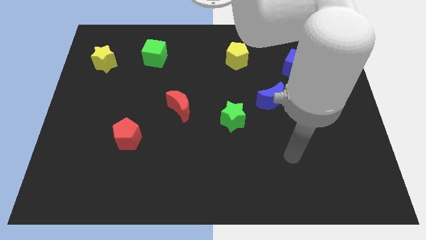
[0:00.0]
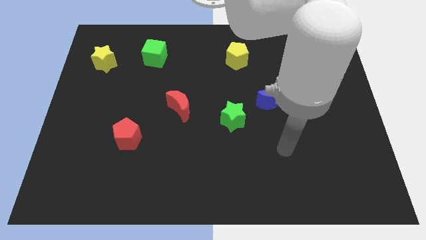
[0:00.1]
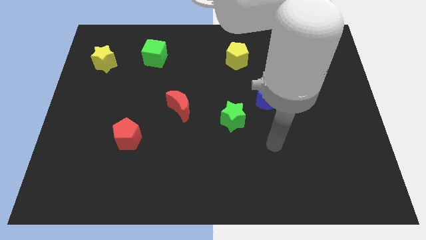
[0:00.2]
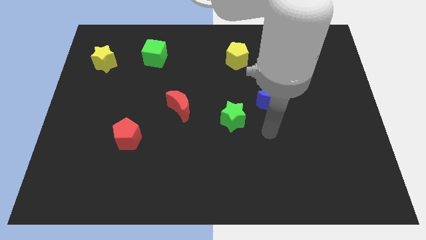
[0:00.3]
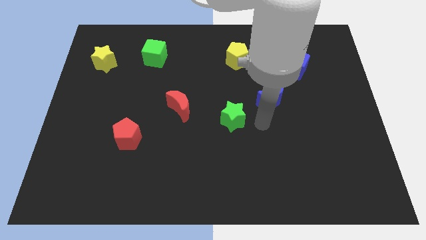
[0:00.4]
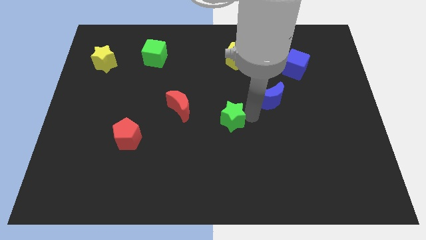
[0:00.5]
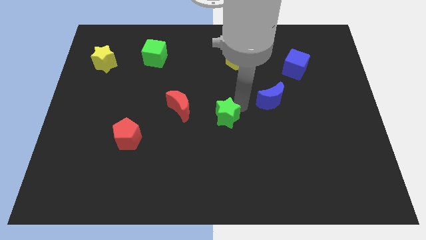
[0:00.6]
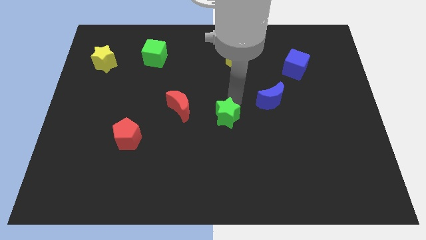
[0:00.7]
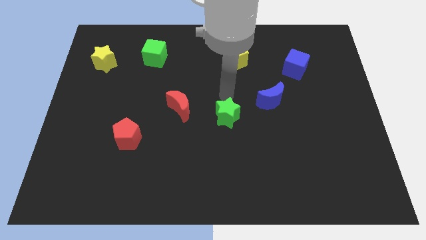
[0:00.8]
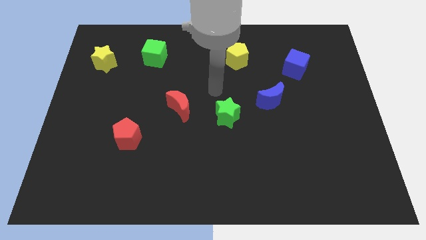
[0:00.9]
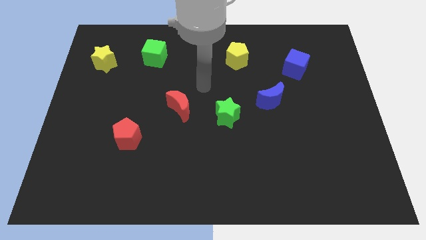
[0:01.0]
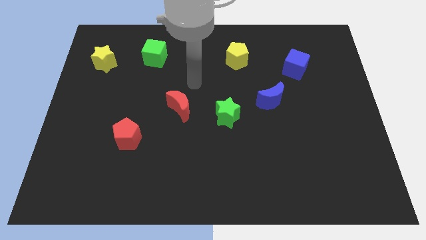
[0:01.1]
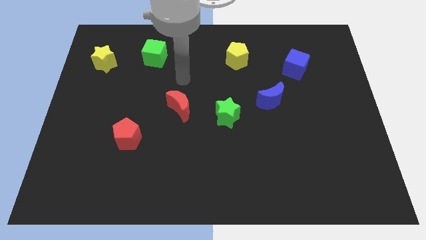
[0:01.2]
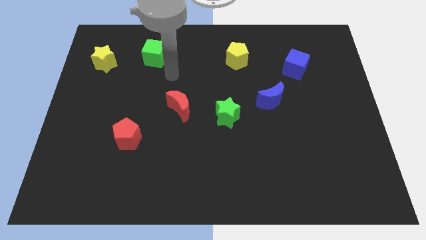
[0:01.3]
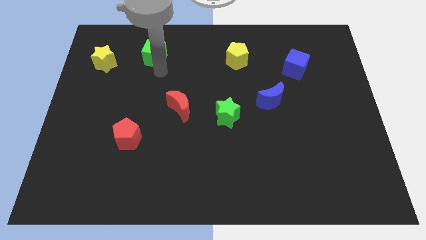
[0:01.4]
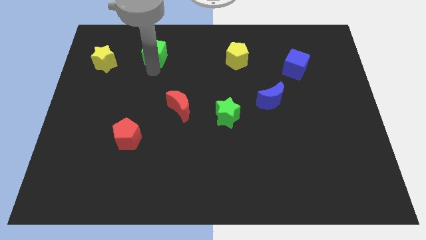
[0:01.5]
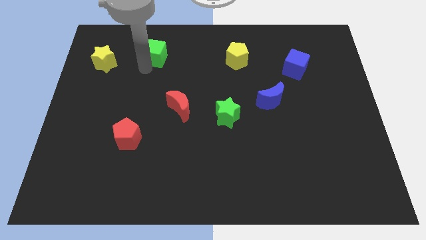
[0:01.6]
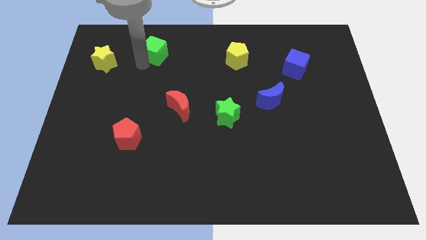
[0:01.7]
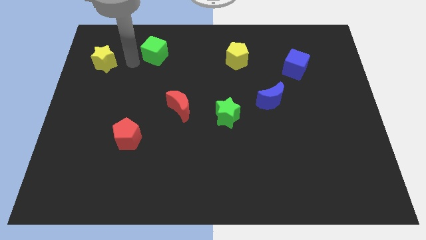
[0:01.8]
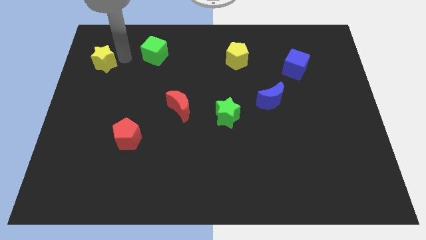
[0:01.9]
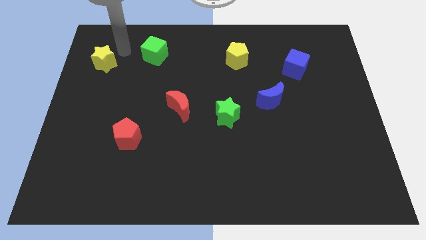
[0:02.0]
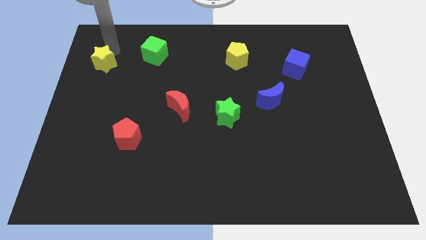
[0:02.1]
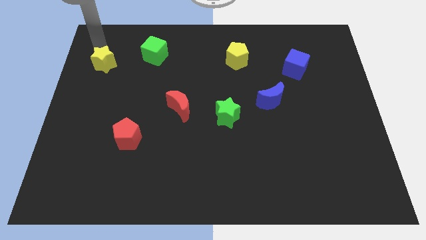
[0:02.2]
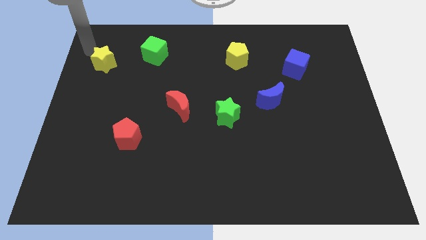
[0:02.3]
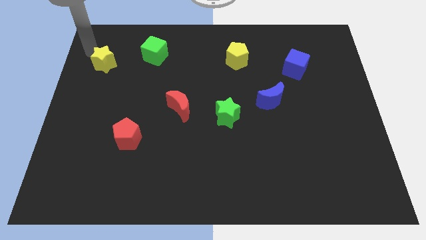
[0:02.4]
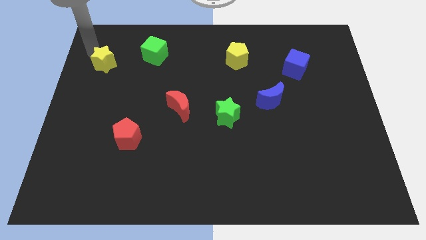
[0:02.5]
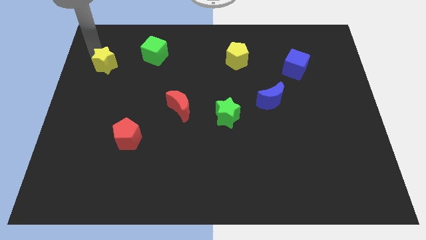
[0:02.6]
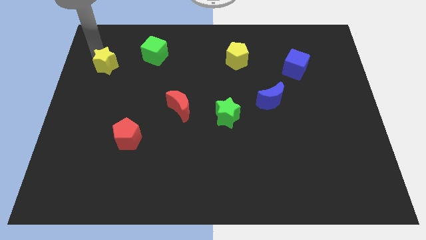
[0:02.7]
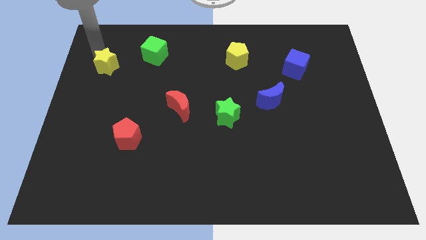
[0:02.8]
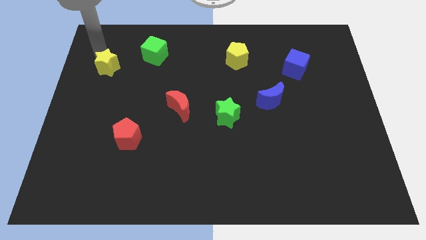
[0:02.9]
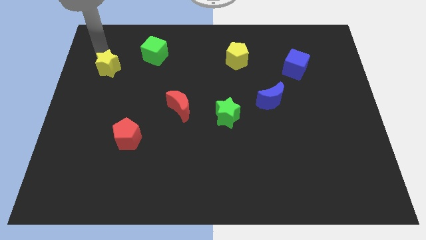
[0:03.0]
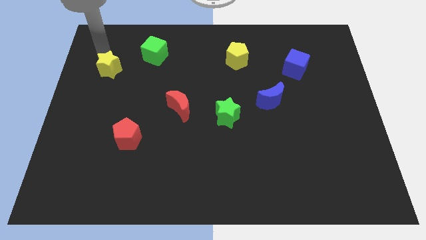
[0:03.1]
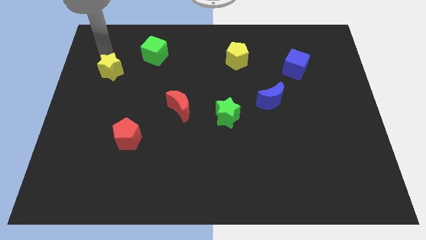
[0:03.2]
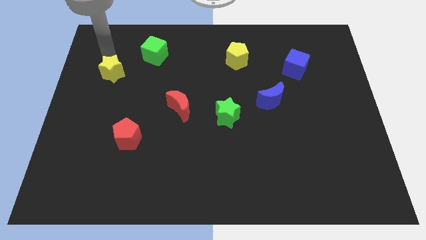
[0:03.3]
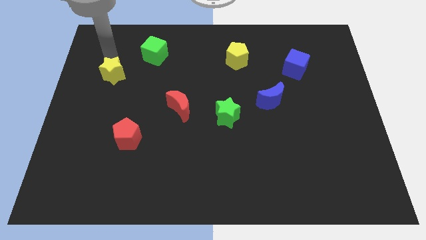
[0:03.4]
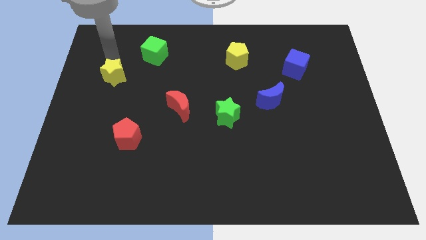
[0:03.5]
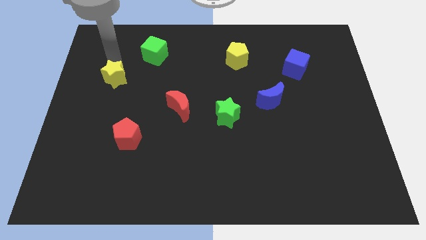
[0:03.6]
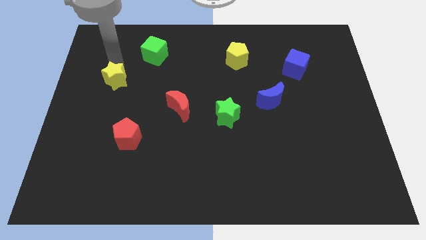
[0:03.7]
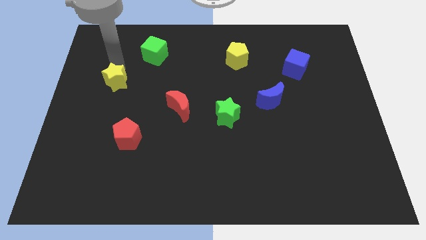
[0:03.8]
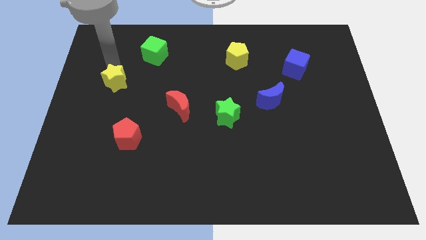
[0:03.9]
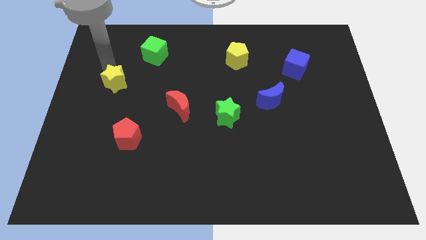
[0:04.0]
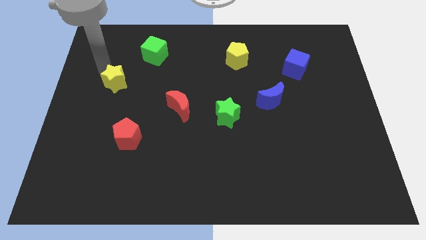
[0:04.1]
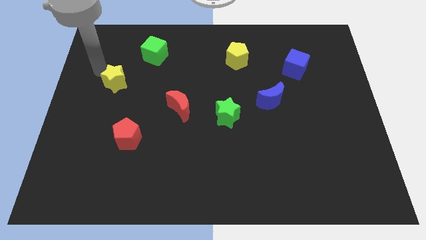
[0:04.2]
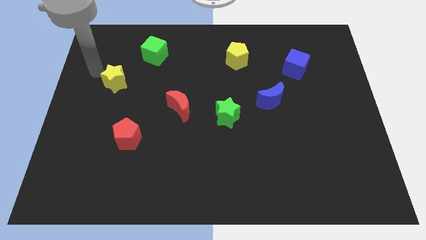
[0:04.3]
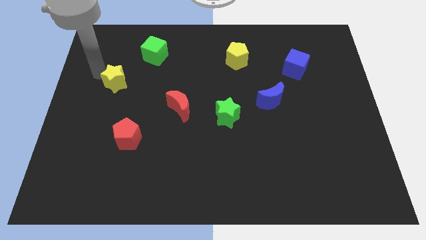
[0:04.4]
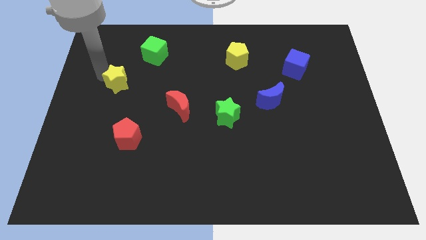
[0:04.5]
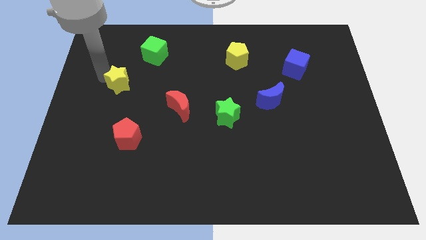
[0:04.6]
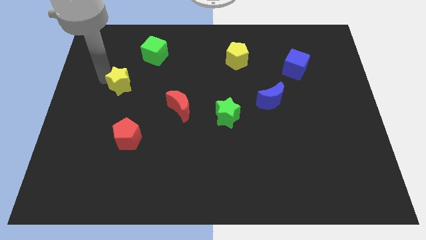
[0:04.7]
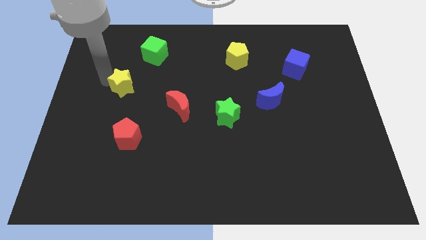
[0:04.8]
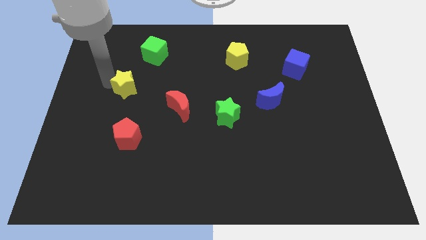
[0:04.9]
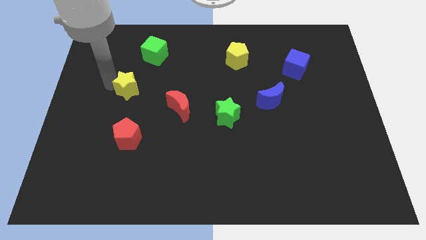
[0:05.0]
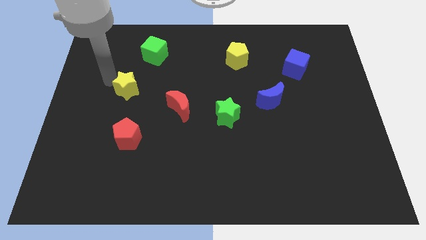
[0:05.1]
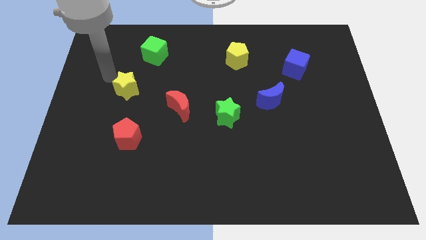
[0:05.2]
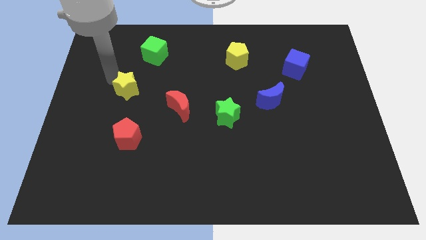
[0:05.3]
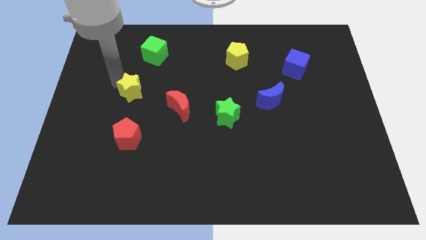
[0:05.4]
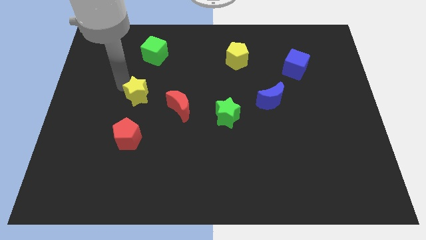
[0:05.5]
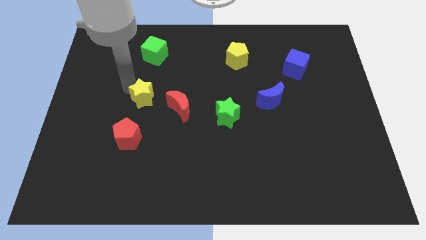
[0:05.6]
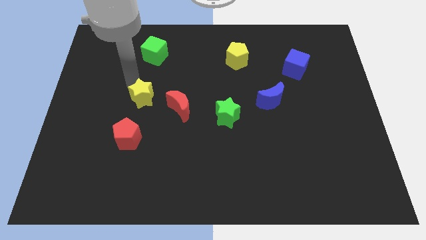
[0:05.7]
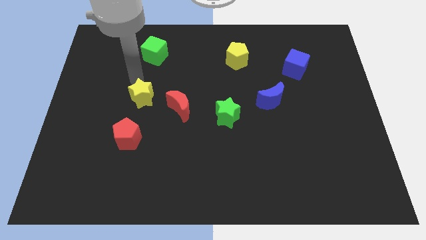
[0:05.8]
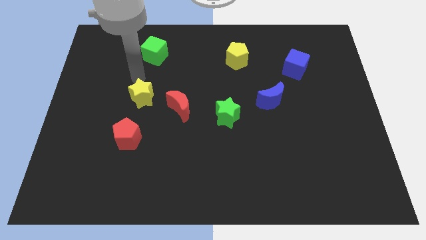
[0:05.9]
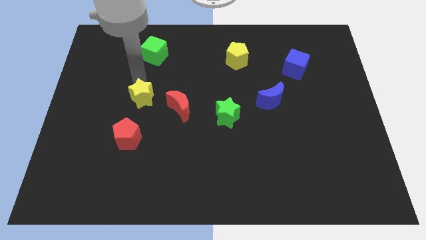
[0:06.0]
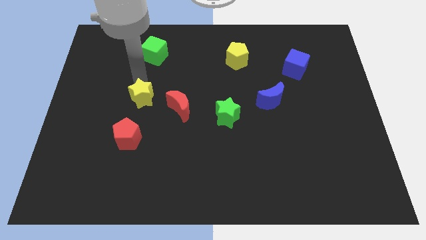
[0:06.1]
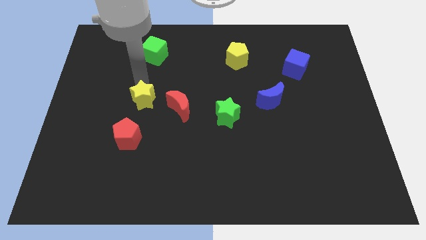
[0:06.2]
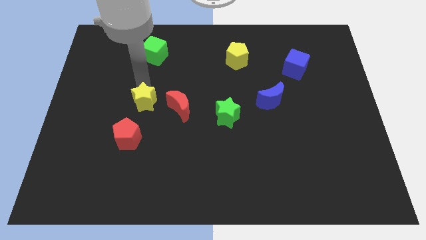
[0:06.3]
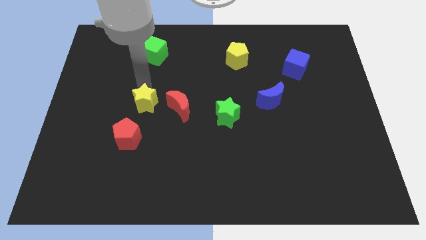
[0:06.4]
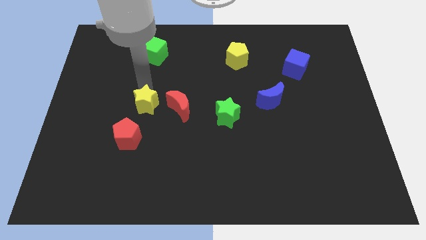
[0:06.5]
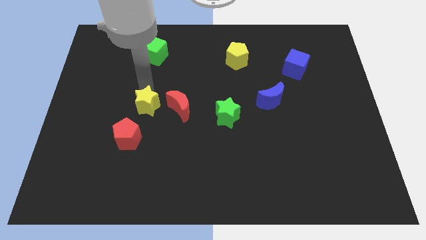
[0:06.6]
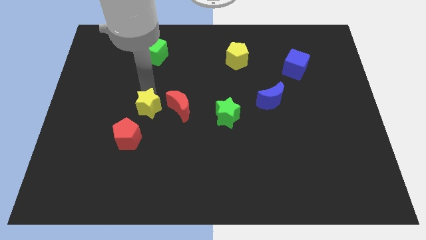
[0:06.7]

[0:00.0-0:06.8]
slide the yellow star down and to the right diagonally

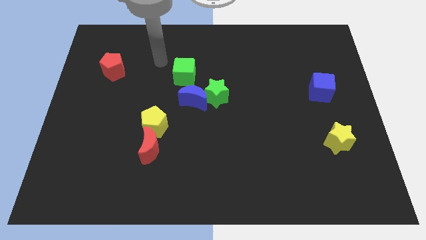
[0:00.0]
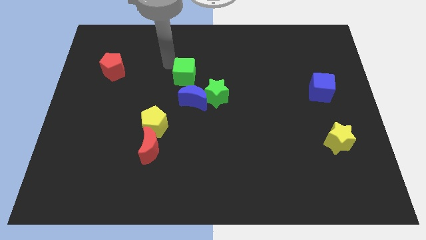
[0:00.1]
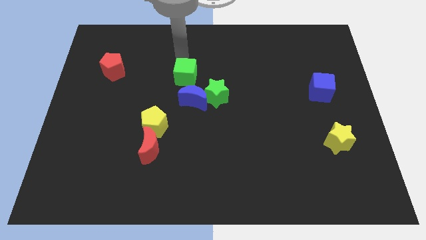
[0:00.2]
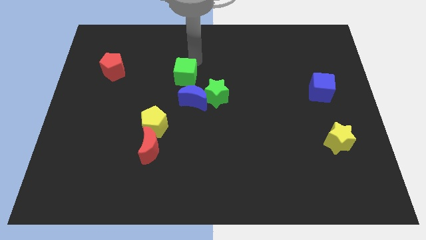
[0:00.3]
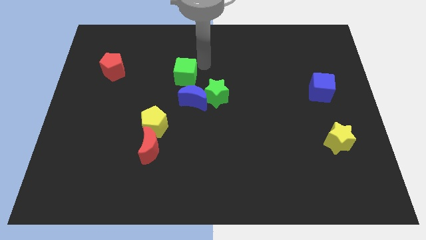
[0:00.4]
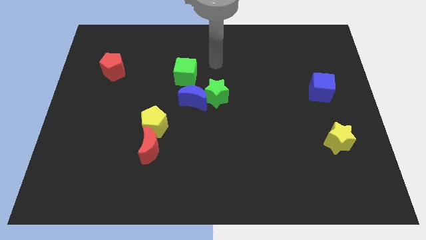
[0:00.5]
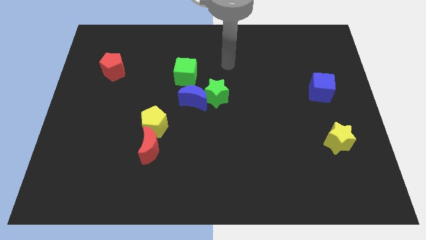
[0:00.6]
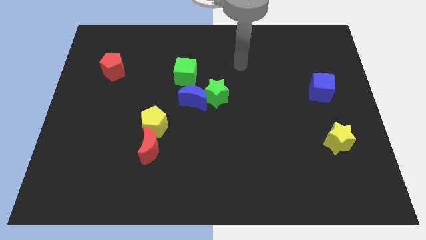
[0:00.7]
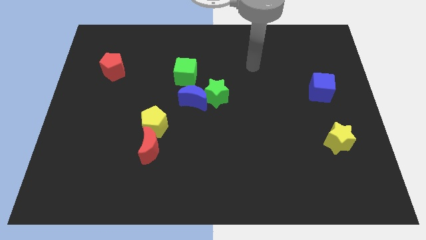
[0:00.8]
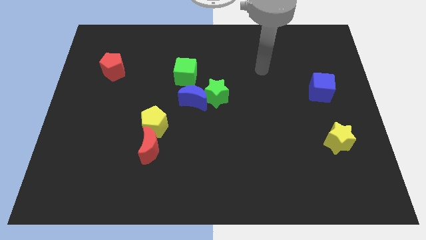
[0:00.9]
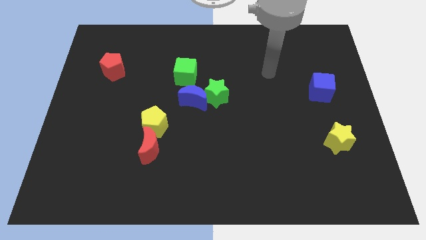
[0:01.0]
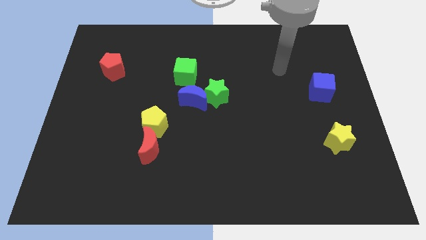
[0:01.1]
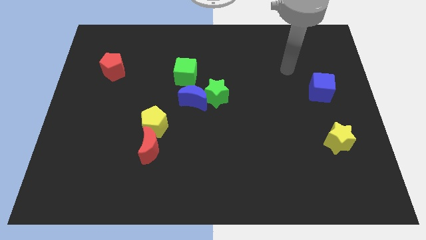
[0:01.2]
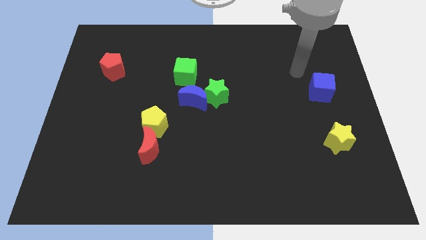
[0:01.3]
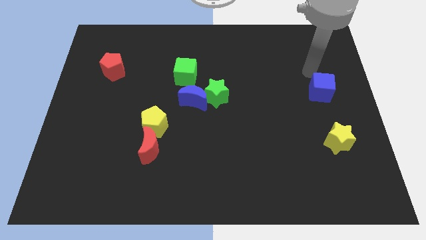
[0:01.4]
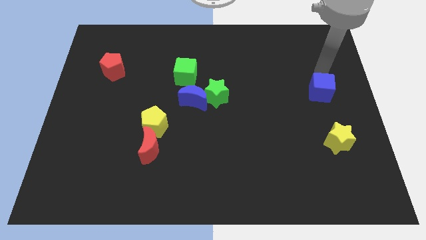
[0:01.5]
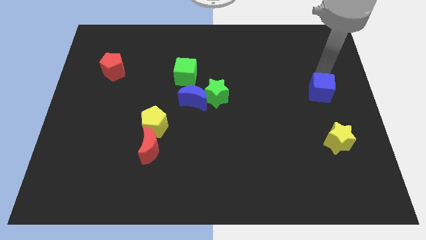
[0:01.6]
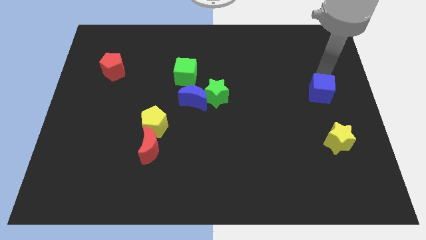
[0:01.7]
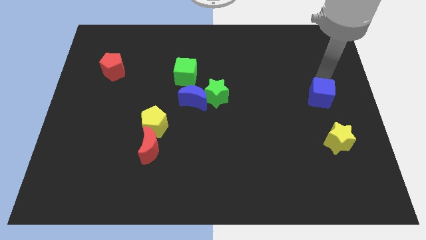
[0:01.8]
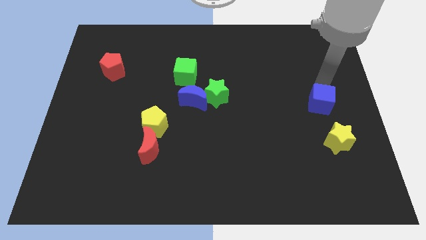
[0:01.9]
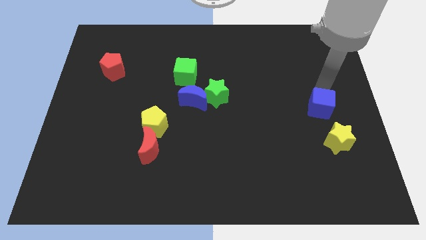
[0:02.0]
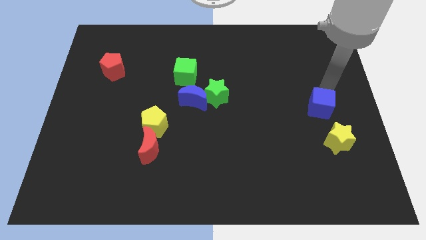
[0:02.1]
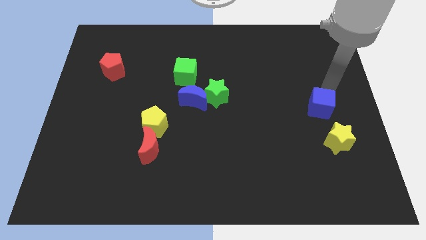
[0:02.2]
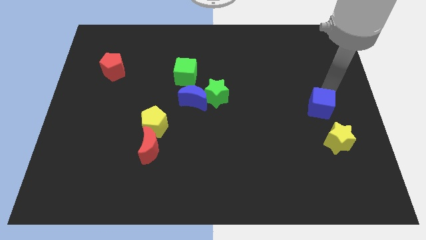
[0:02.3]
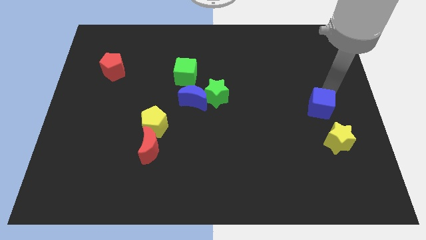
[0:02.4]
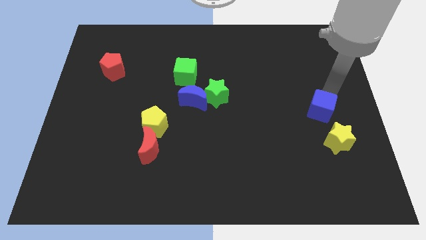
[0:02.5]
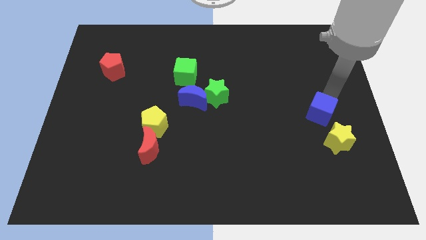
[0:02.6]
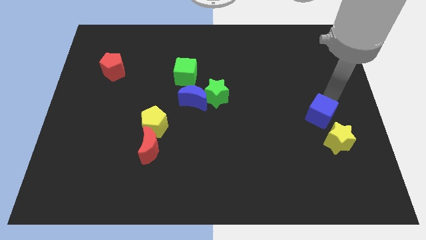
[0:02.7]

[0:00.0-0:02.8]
push the blue cube somewhat down
